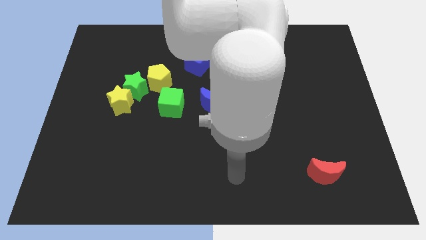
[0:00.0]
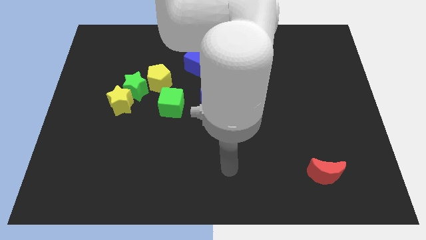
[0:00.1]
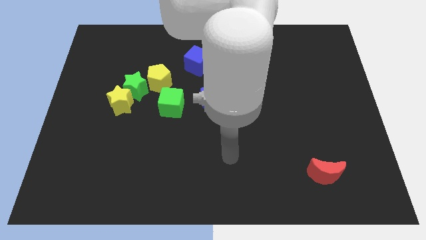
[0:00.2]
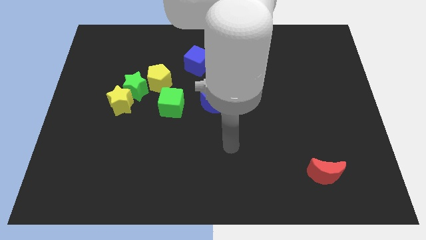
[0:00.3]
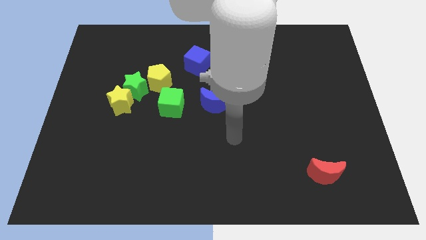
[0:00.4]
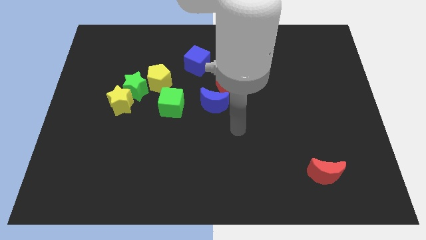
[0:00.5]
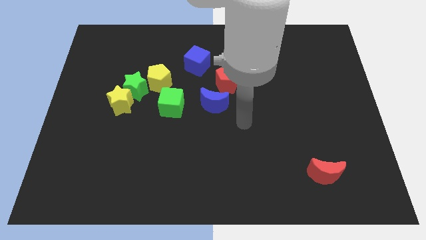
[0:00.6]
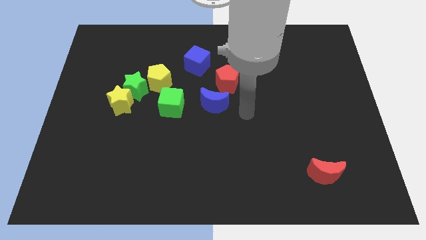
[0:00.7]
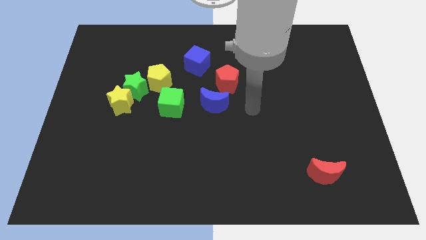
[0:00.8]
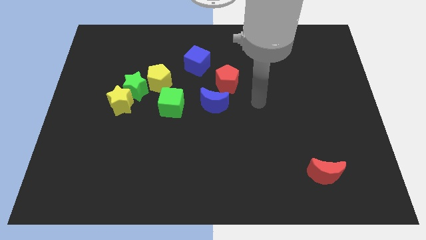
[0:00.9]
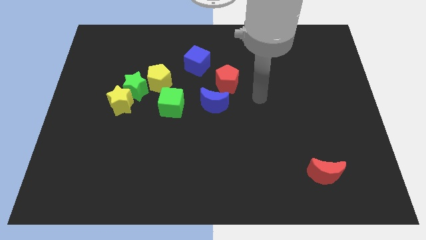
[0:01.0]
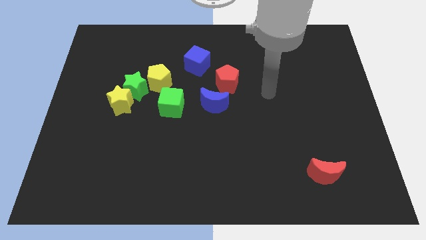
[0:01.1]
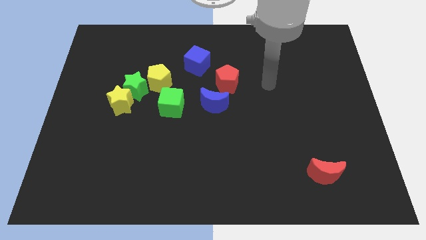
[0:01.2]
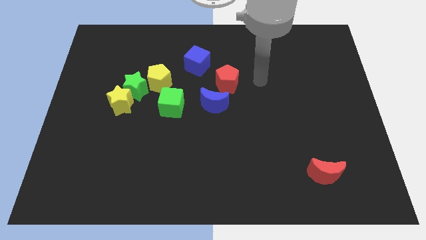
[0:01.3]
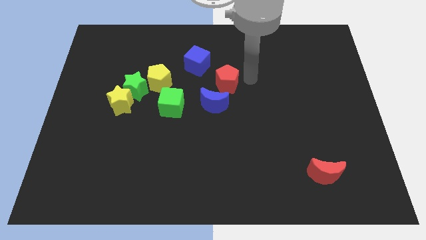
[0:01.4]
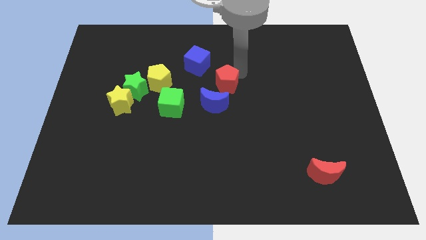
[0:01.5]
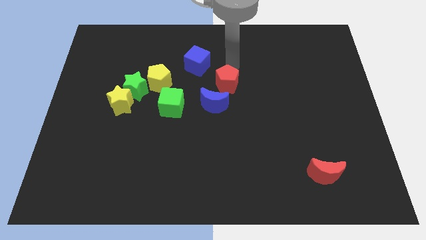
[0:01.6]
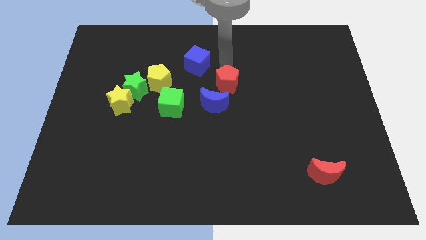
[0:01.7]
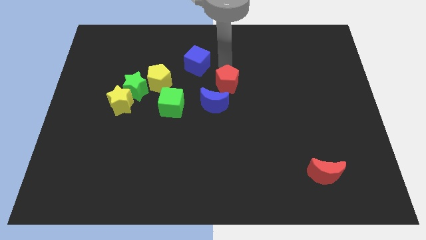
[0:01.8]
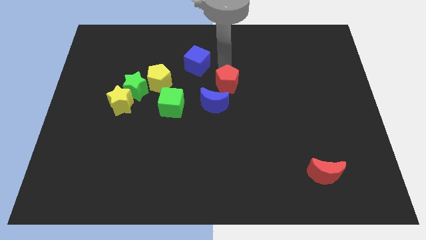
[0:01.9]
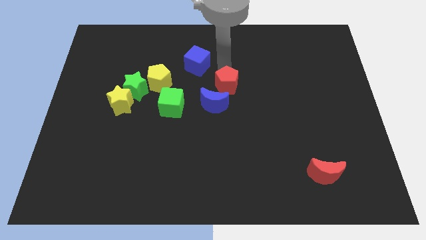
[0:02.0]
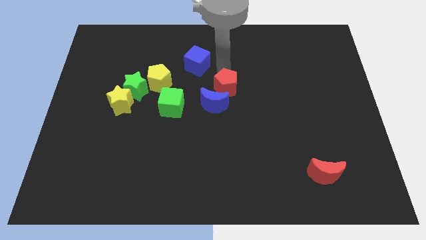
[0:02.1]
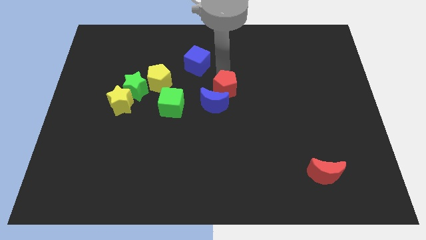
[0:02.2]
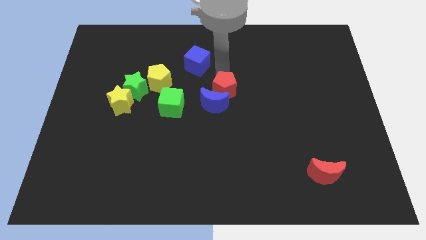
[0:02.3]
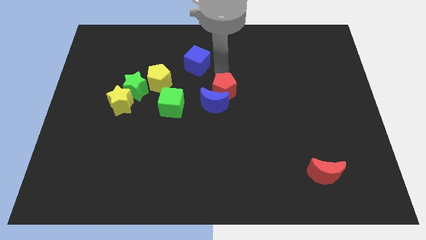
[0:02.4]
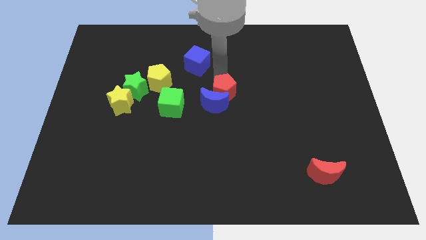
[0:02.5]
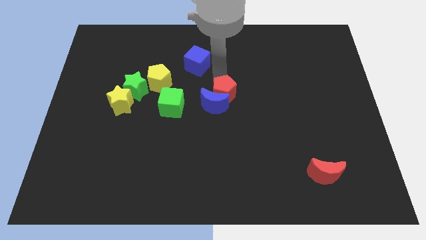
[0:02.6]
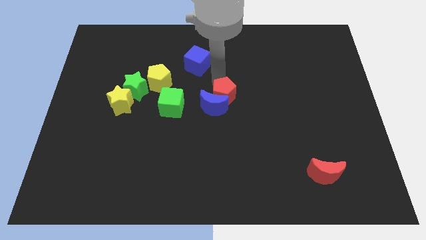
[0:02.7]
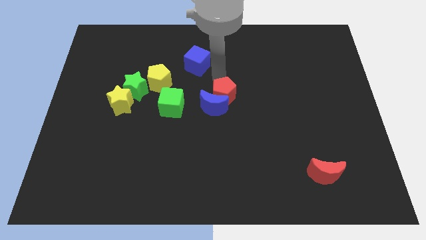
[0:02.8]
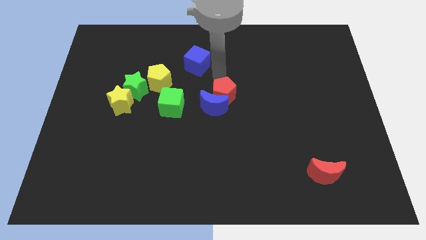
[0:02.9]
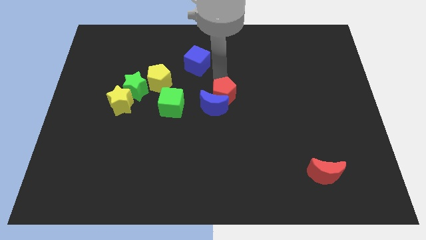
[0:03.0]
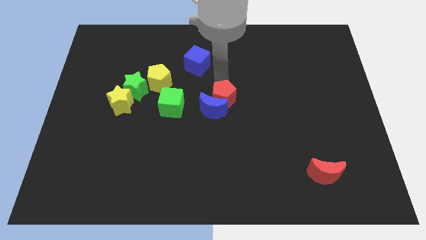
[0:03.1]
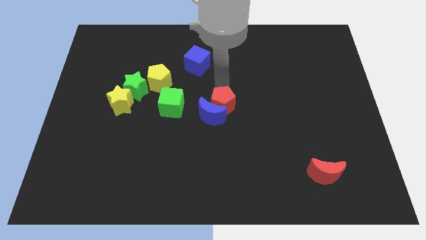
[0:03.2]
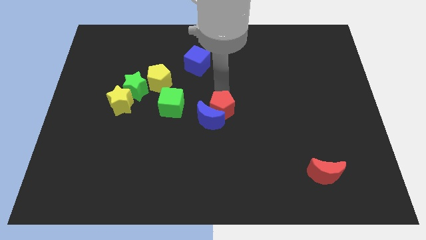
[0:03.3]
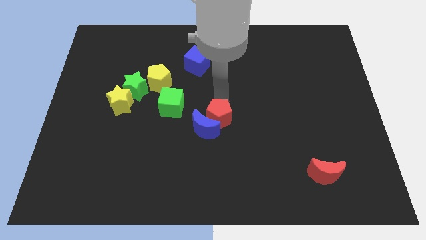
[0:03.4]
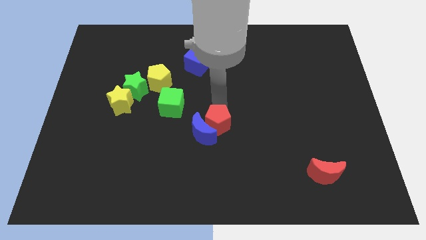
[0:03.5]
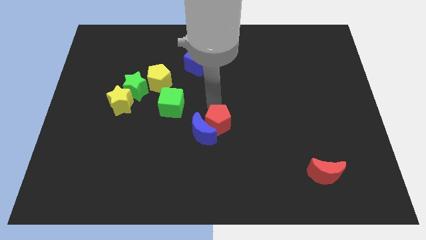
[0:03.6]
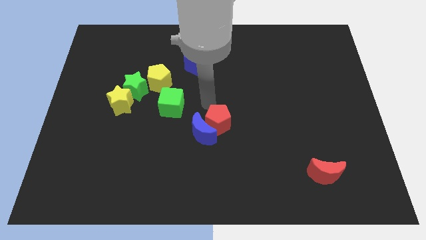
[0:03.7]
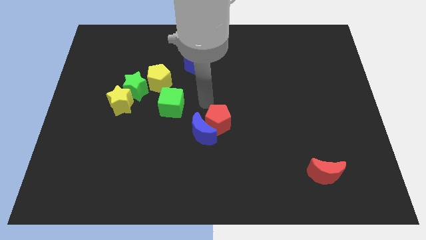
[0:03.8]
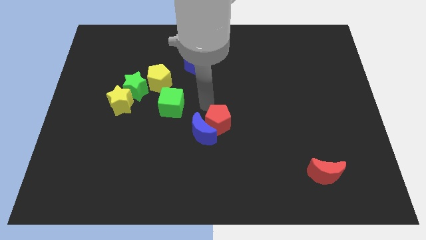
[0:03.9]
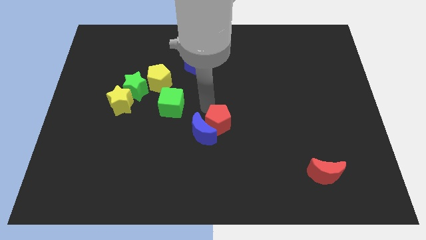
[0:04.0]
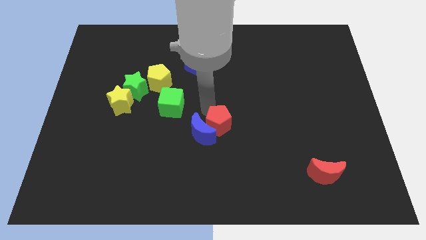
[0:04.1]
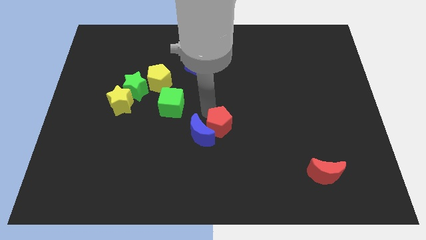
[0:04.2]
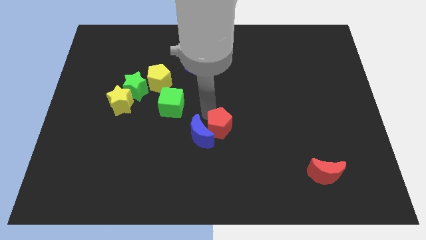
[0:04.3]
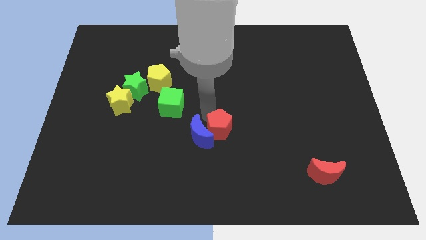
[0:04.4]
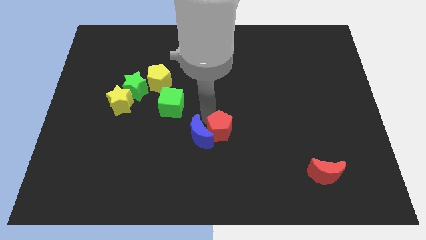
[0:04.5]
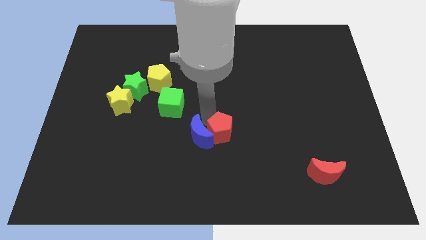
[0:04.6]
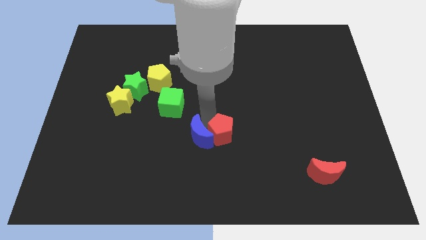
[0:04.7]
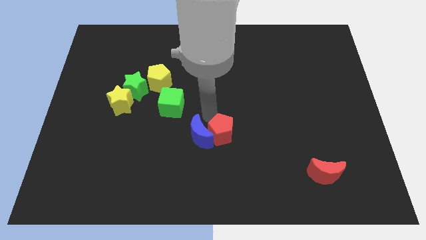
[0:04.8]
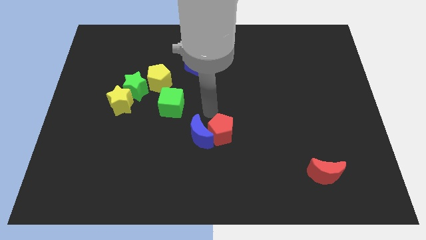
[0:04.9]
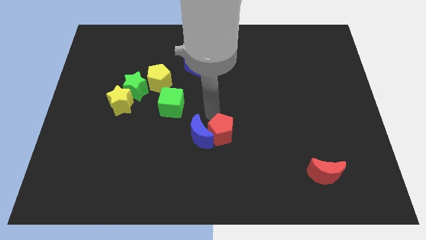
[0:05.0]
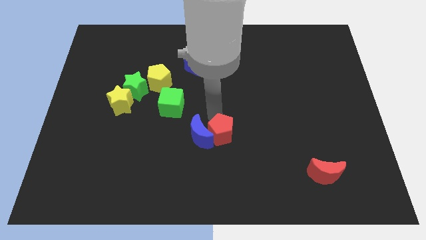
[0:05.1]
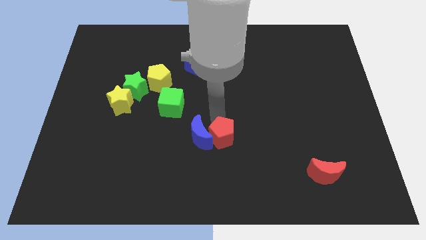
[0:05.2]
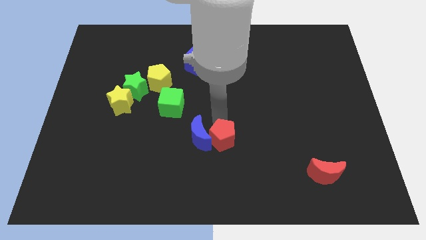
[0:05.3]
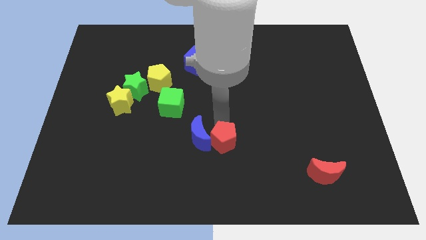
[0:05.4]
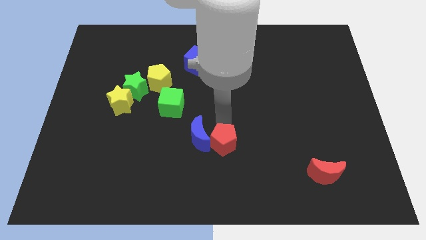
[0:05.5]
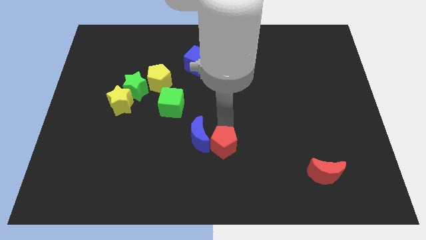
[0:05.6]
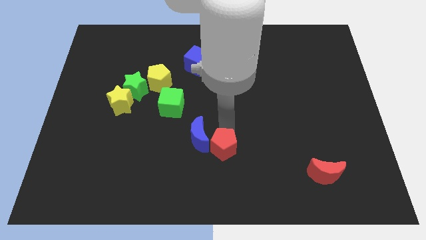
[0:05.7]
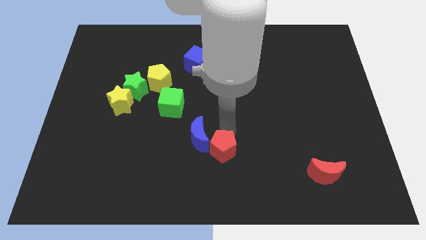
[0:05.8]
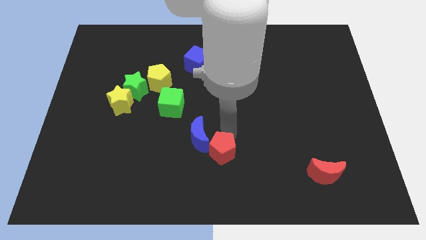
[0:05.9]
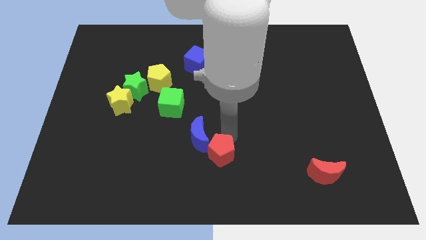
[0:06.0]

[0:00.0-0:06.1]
push the red pentagon to the bottom

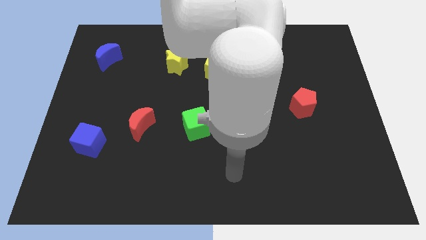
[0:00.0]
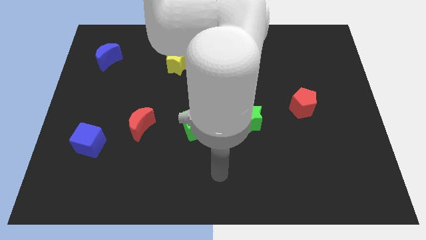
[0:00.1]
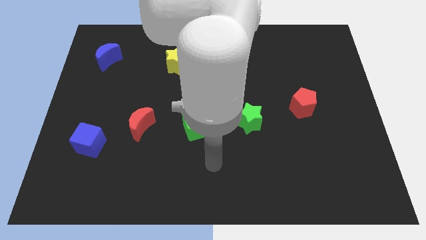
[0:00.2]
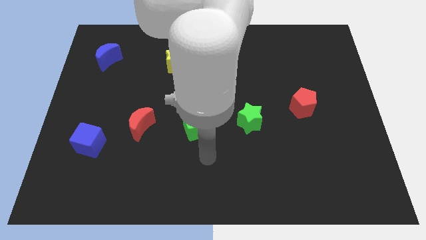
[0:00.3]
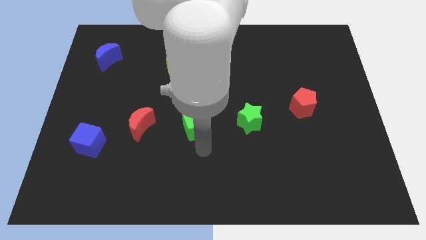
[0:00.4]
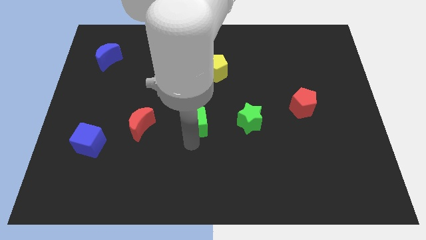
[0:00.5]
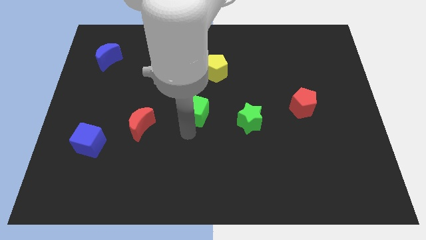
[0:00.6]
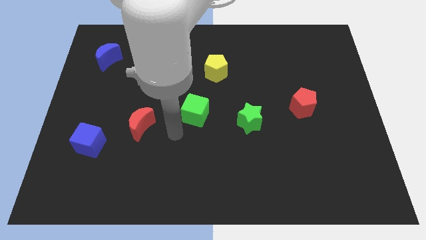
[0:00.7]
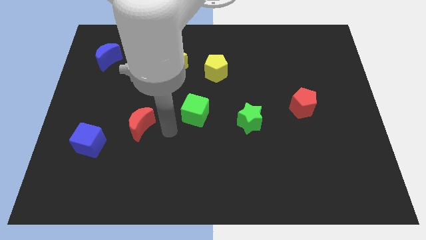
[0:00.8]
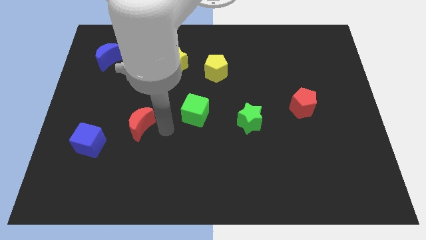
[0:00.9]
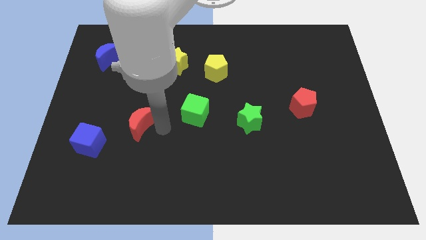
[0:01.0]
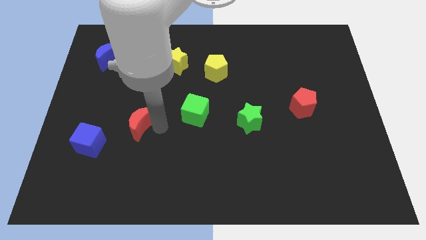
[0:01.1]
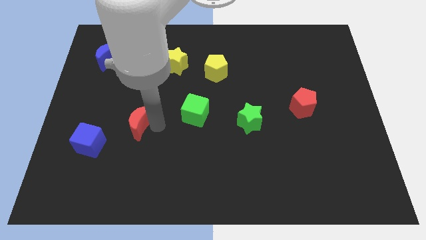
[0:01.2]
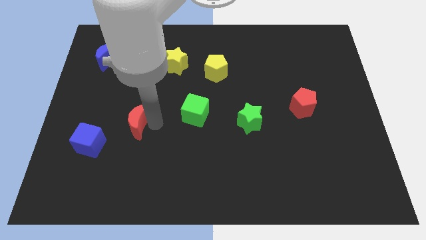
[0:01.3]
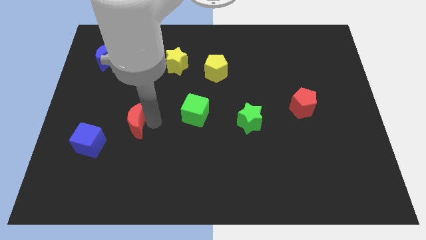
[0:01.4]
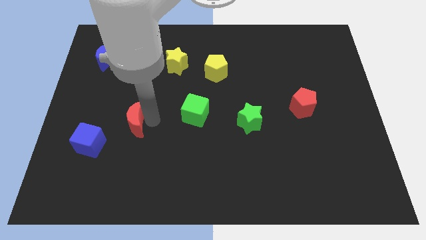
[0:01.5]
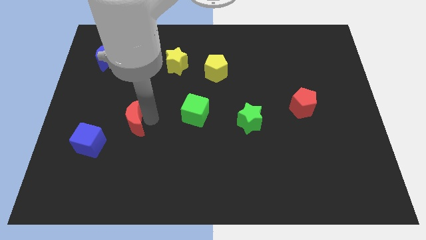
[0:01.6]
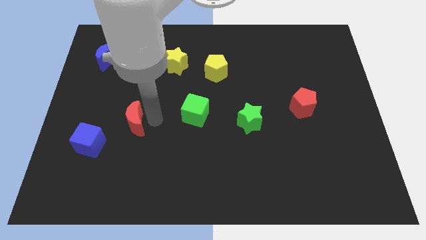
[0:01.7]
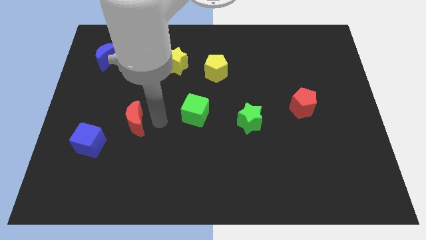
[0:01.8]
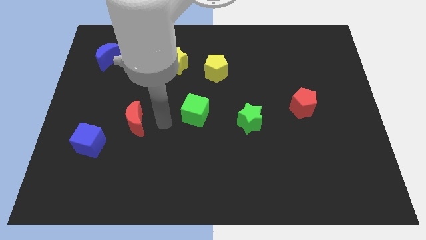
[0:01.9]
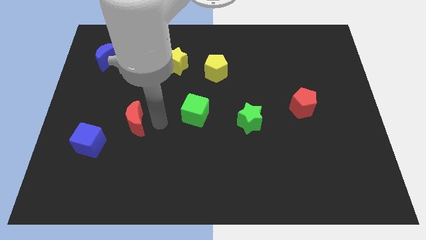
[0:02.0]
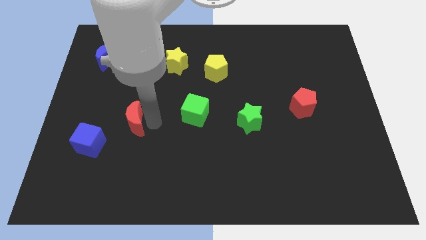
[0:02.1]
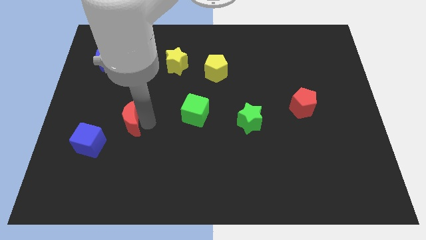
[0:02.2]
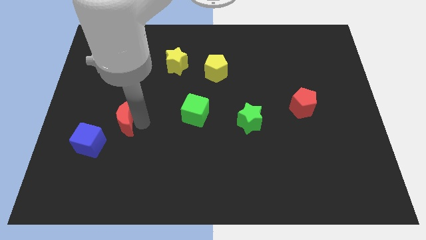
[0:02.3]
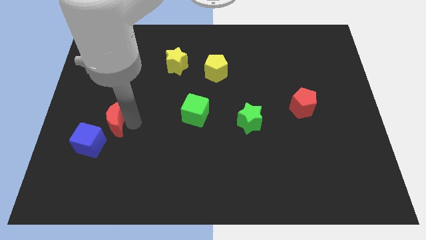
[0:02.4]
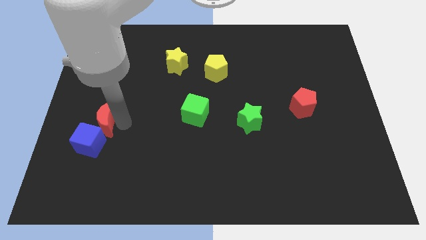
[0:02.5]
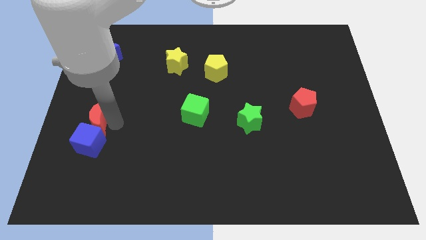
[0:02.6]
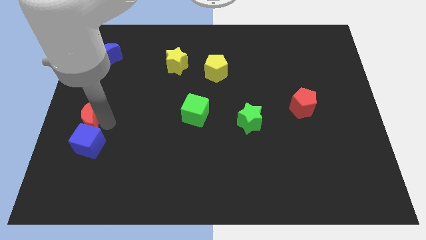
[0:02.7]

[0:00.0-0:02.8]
move the red moon to the left side
